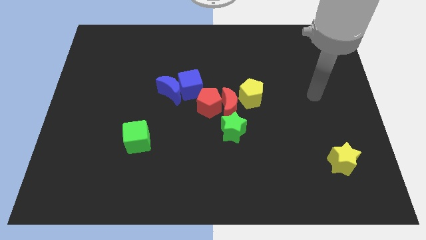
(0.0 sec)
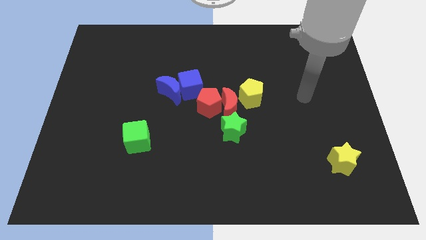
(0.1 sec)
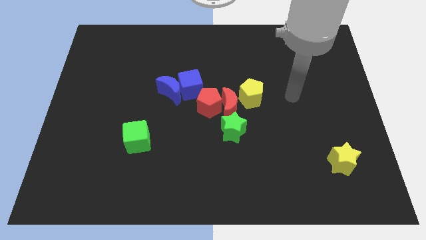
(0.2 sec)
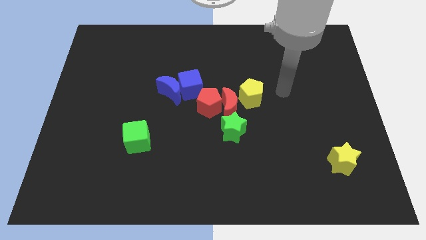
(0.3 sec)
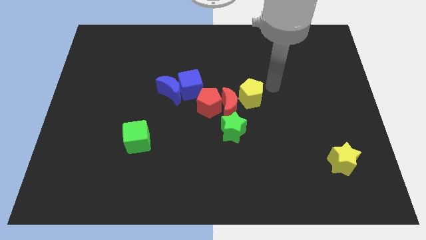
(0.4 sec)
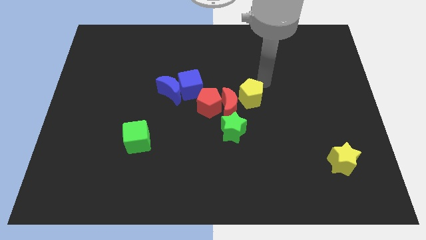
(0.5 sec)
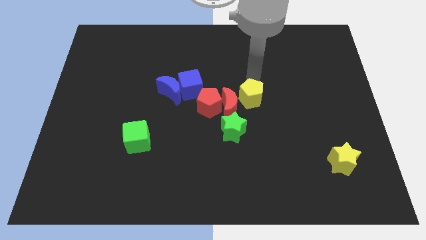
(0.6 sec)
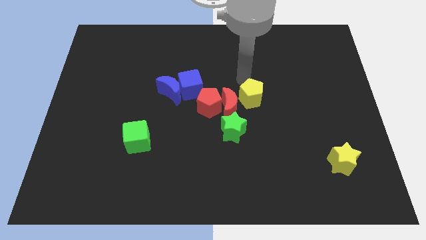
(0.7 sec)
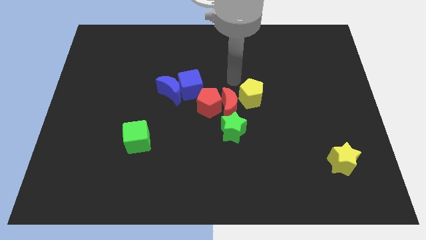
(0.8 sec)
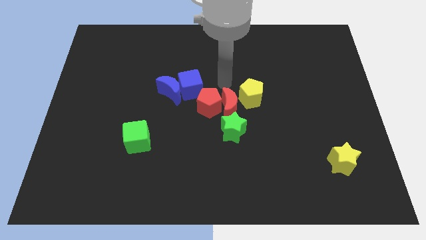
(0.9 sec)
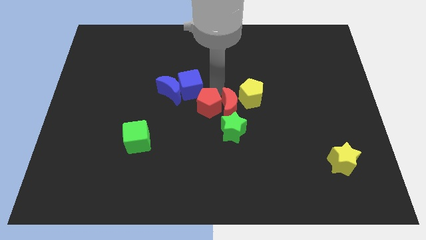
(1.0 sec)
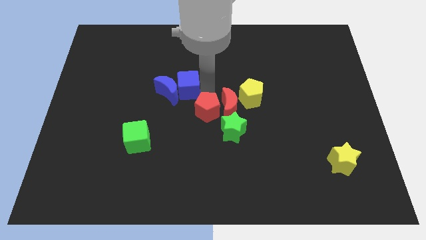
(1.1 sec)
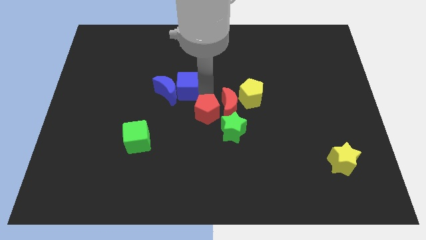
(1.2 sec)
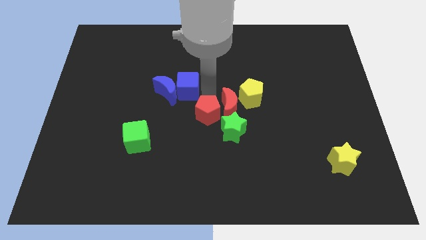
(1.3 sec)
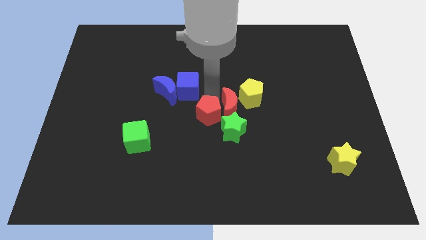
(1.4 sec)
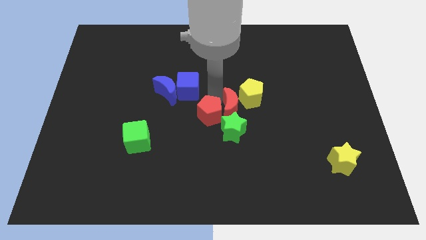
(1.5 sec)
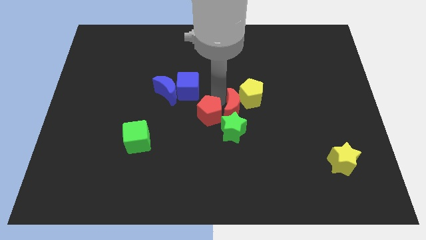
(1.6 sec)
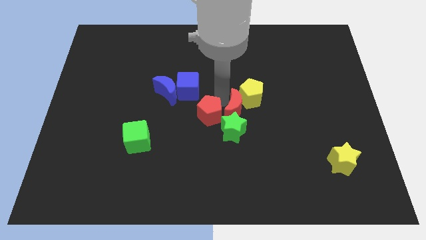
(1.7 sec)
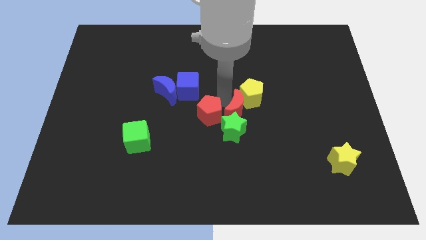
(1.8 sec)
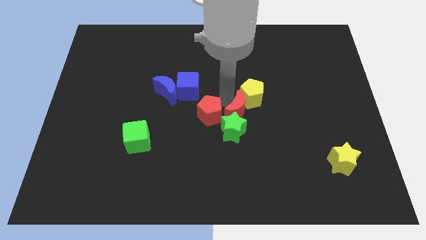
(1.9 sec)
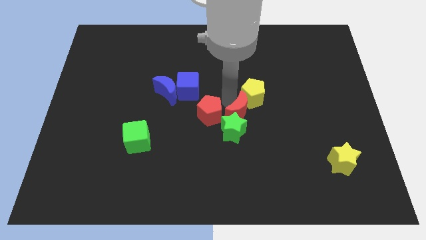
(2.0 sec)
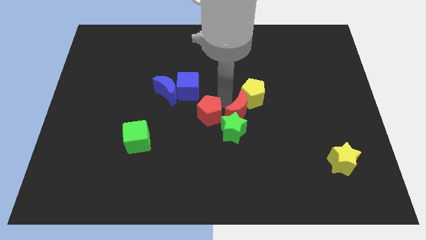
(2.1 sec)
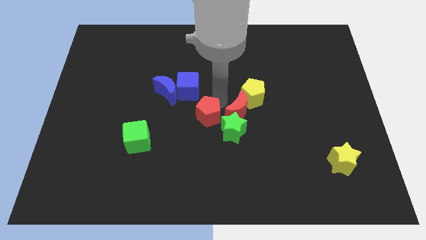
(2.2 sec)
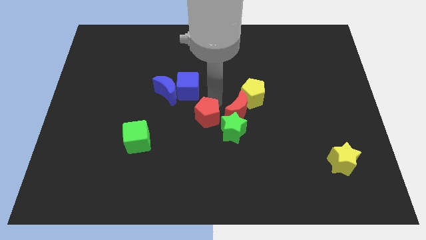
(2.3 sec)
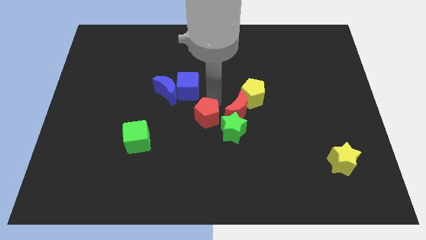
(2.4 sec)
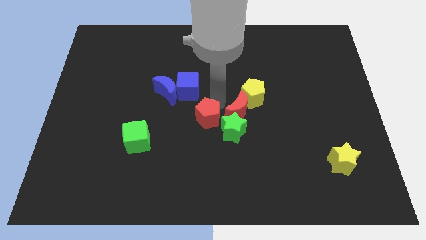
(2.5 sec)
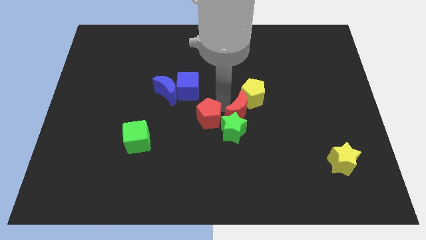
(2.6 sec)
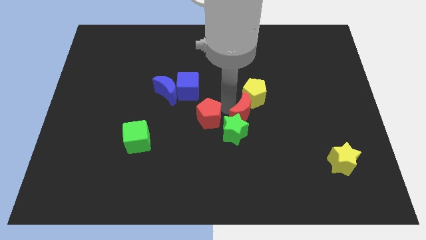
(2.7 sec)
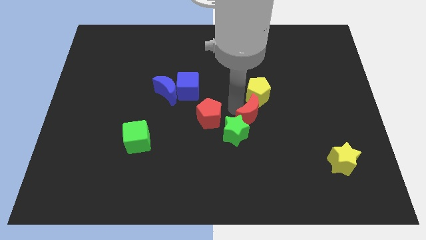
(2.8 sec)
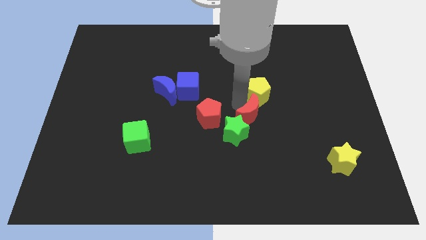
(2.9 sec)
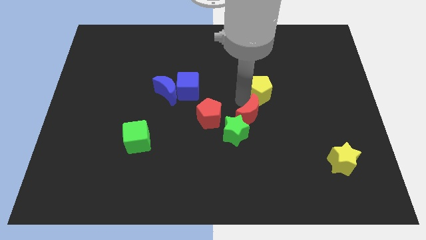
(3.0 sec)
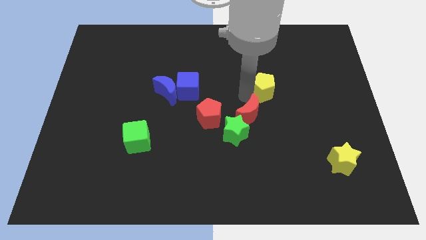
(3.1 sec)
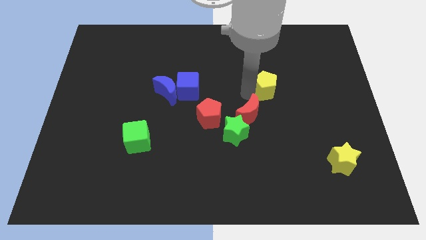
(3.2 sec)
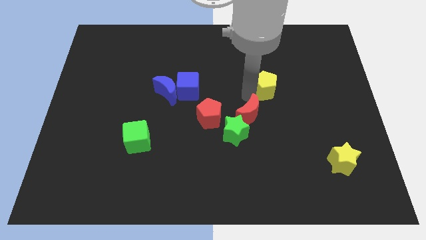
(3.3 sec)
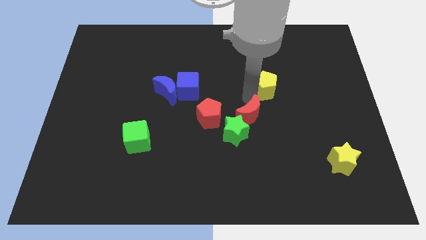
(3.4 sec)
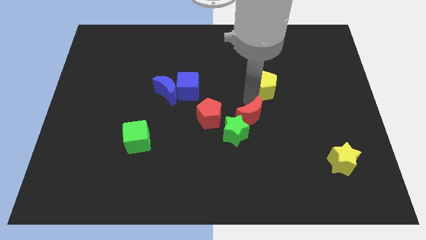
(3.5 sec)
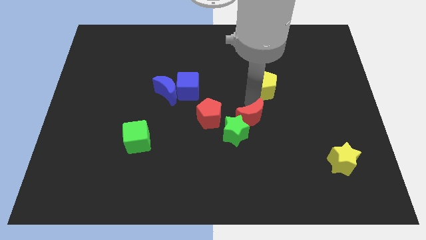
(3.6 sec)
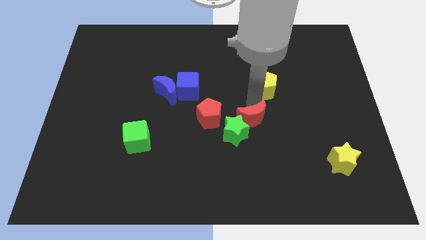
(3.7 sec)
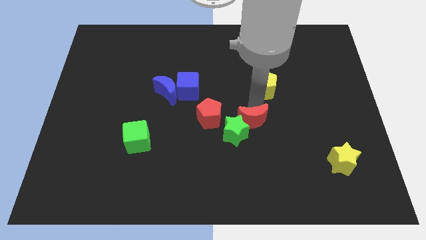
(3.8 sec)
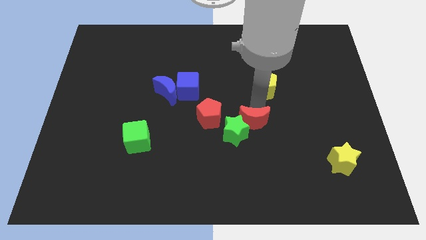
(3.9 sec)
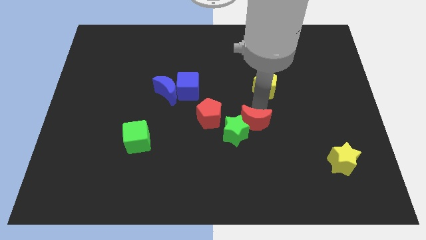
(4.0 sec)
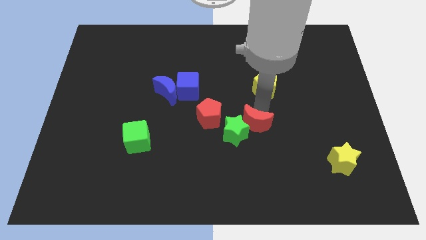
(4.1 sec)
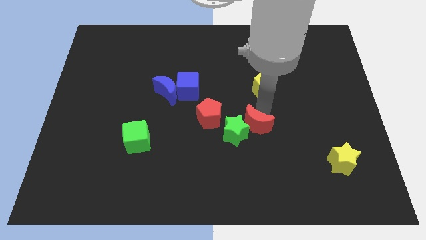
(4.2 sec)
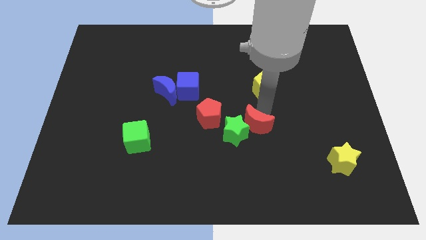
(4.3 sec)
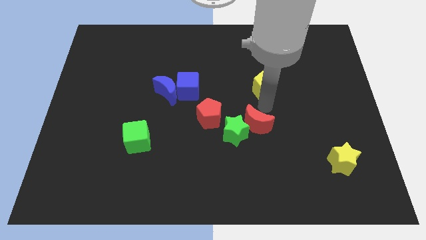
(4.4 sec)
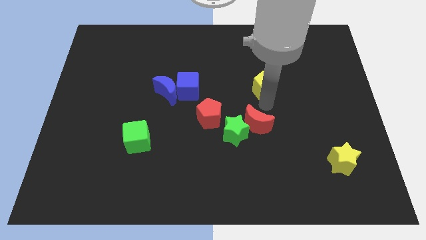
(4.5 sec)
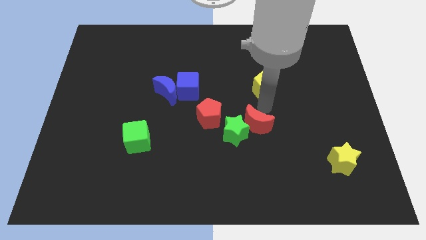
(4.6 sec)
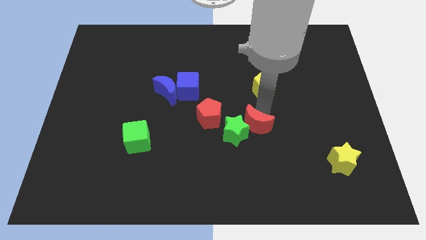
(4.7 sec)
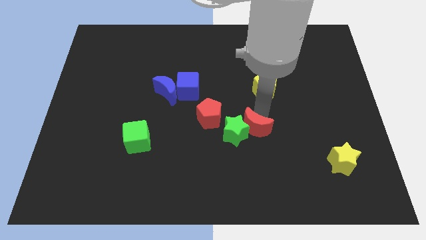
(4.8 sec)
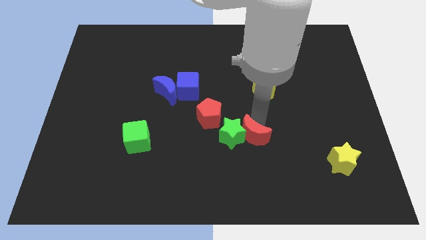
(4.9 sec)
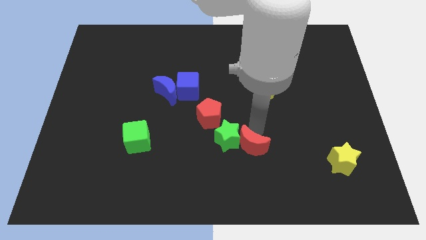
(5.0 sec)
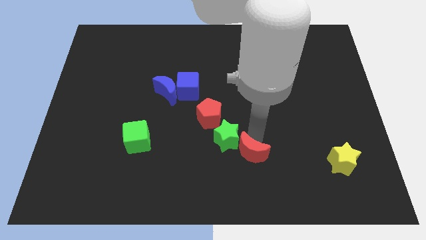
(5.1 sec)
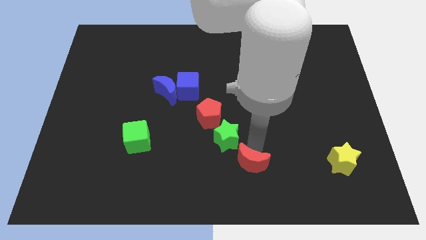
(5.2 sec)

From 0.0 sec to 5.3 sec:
move the red moon to the bottom of the green star

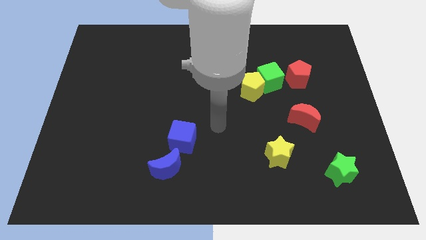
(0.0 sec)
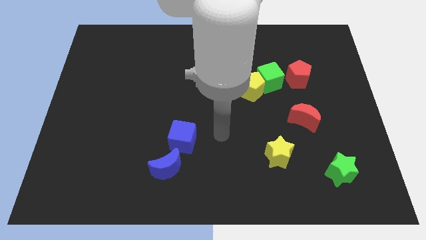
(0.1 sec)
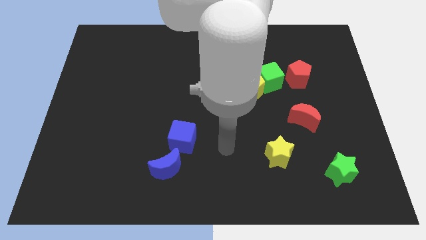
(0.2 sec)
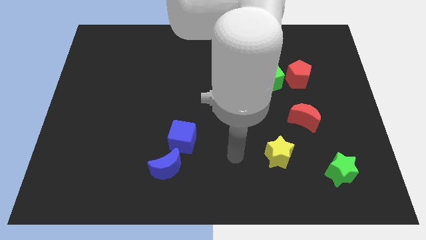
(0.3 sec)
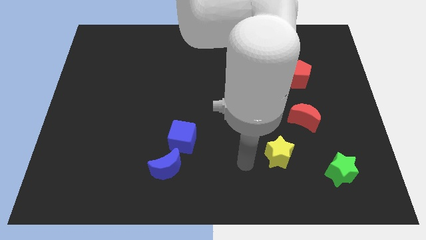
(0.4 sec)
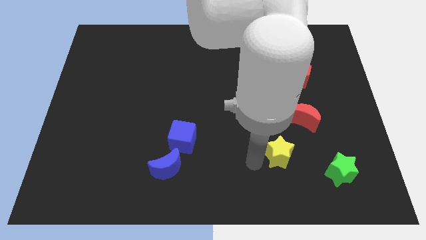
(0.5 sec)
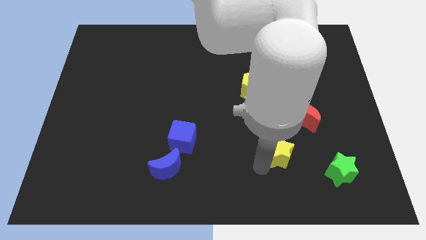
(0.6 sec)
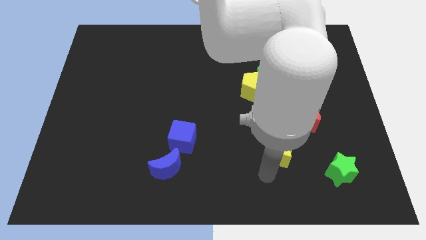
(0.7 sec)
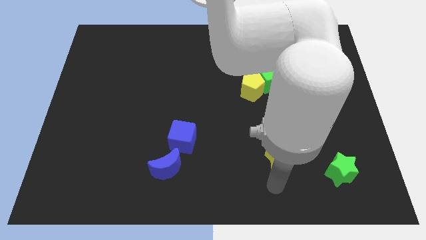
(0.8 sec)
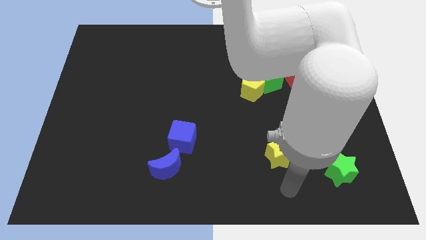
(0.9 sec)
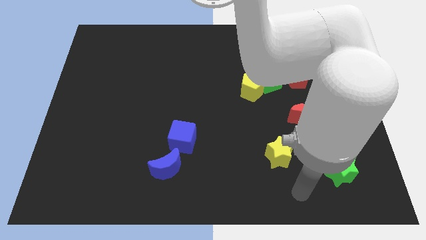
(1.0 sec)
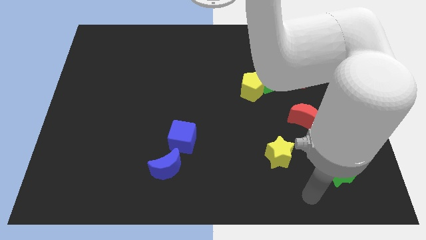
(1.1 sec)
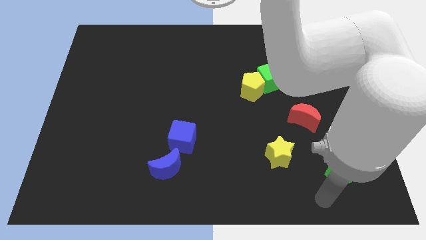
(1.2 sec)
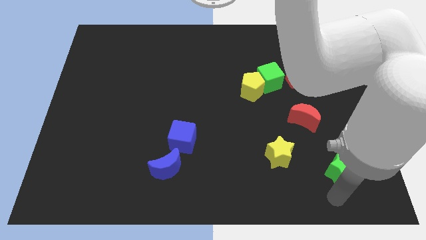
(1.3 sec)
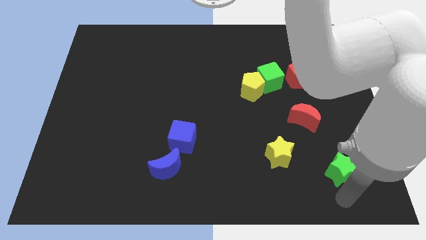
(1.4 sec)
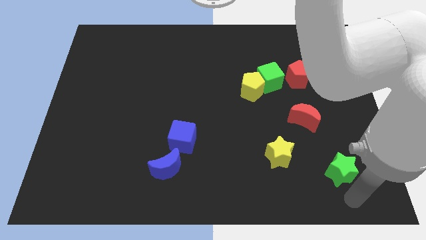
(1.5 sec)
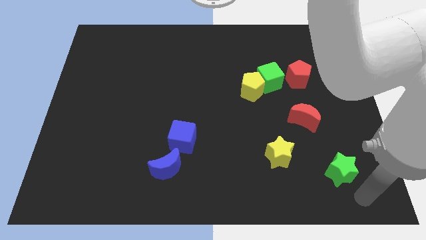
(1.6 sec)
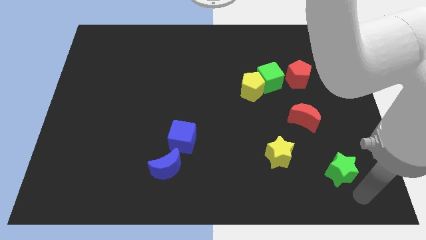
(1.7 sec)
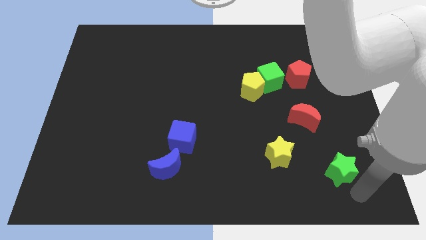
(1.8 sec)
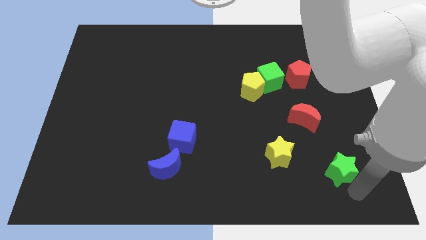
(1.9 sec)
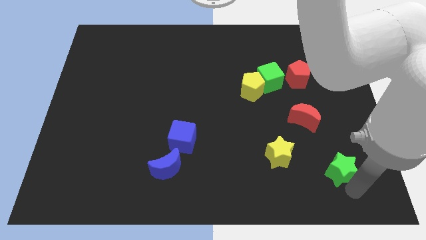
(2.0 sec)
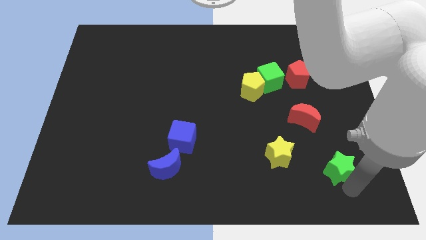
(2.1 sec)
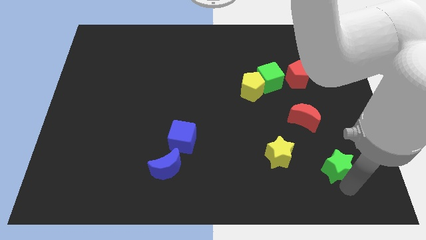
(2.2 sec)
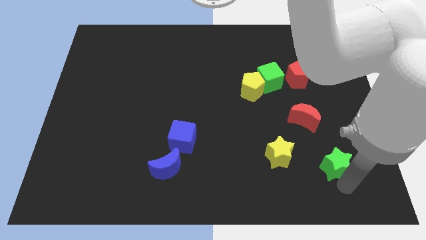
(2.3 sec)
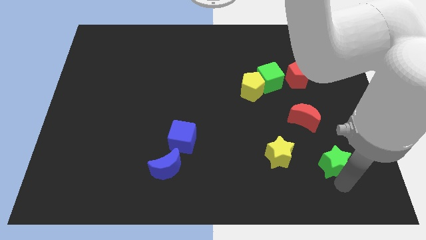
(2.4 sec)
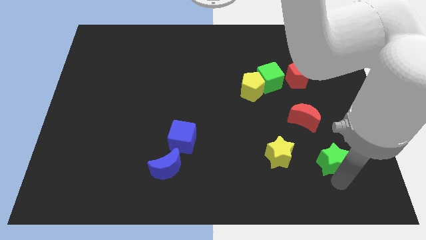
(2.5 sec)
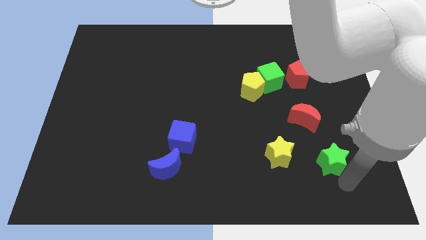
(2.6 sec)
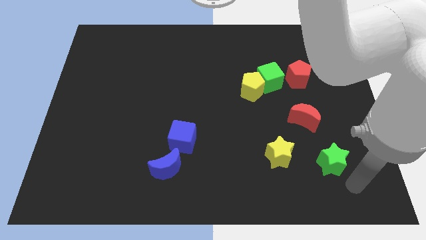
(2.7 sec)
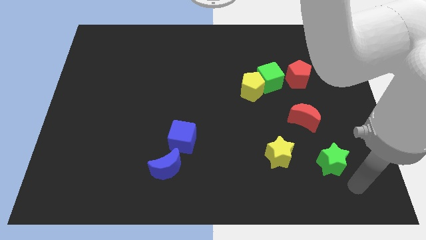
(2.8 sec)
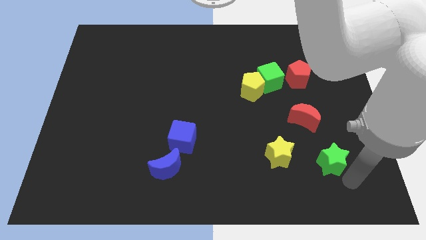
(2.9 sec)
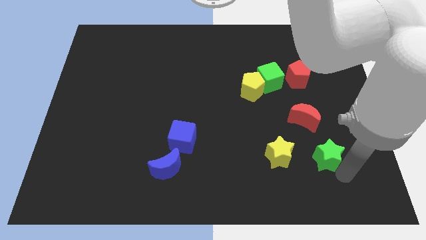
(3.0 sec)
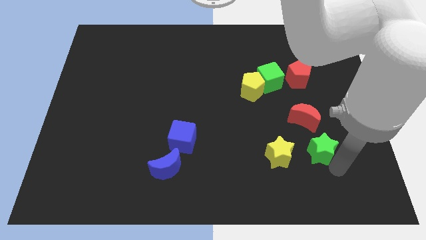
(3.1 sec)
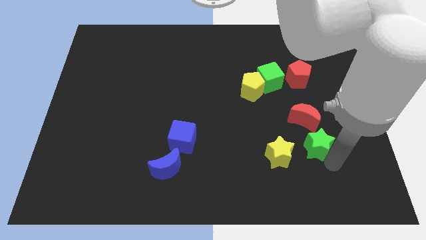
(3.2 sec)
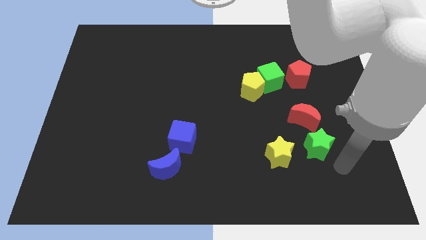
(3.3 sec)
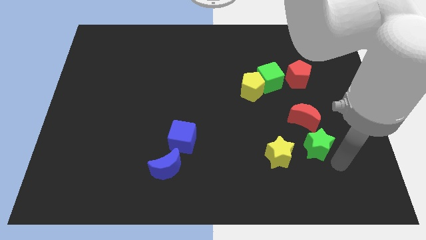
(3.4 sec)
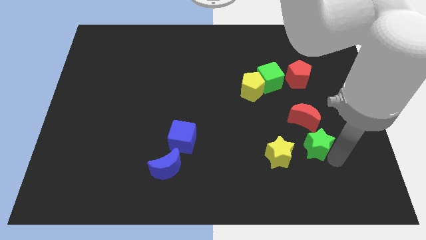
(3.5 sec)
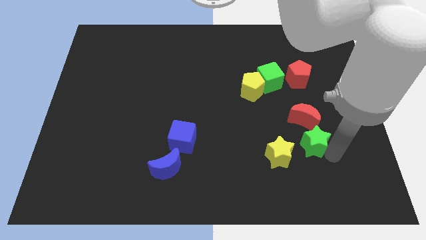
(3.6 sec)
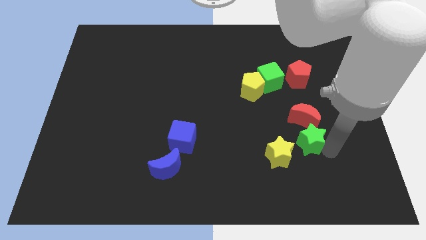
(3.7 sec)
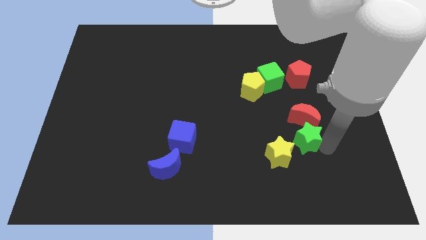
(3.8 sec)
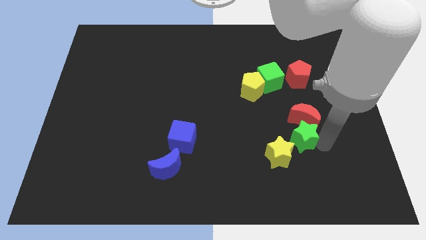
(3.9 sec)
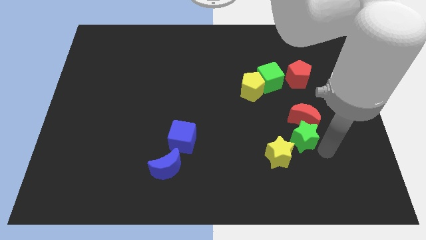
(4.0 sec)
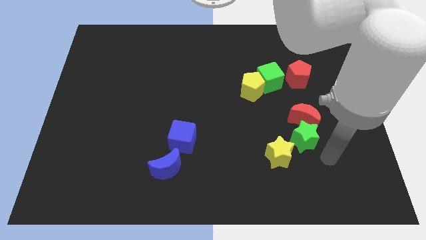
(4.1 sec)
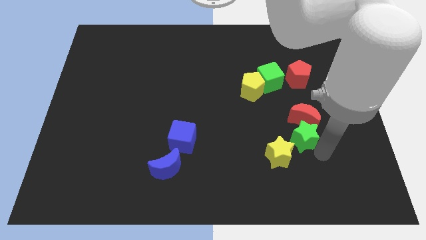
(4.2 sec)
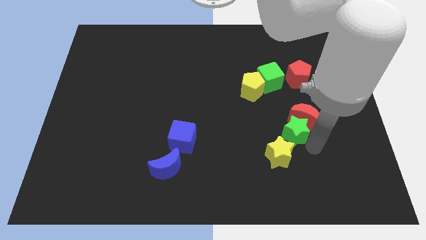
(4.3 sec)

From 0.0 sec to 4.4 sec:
slide the green star to the top of the yellow star
